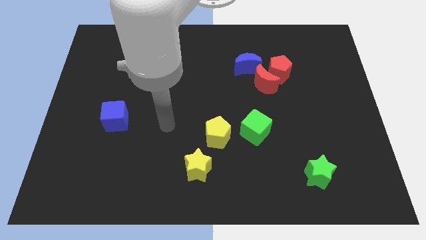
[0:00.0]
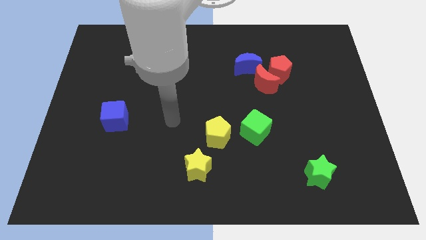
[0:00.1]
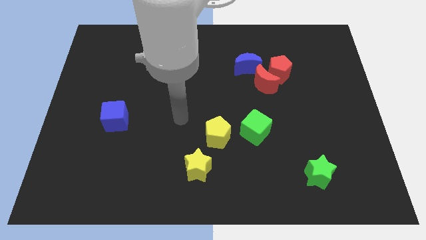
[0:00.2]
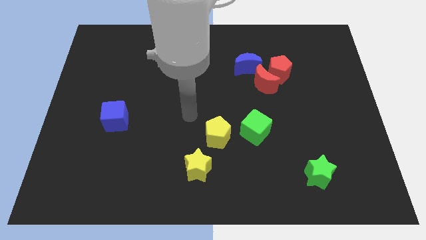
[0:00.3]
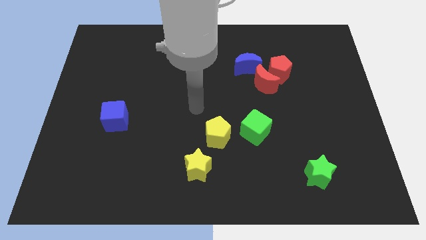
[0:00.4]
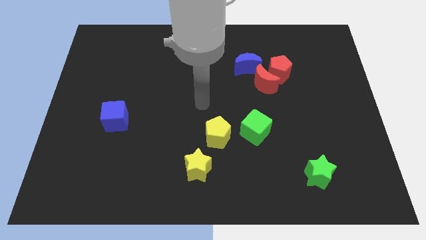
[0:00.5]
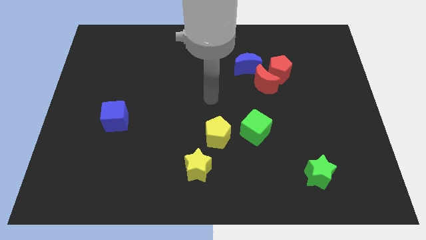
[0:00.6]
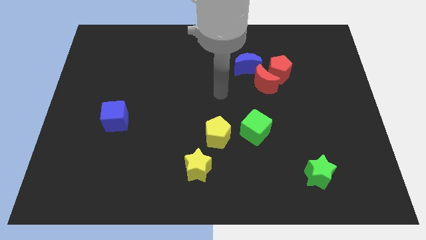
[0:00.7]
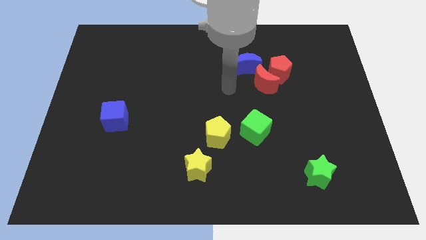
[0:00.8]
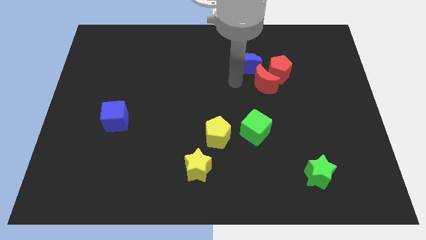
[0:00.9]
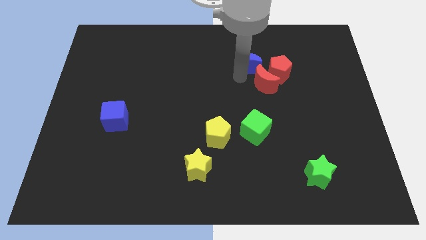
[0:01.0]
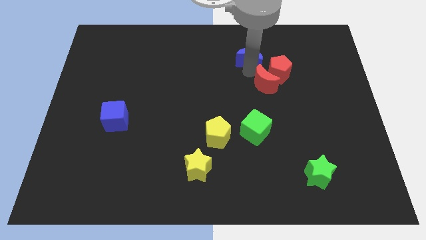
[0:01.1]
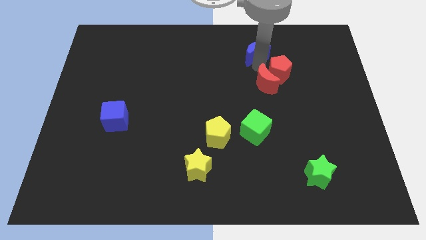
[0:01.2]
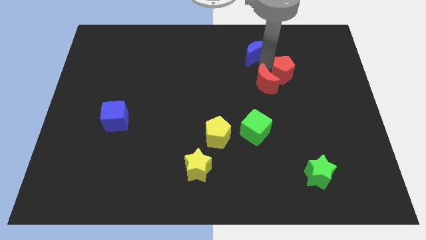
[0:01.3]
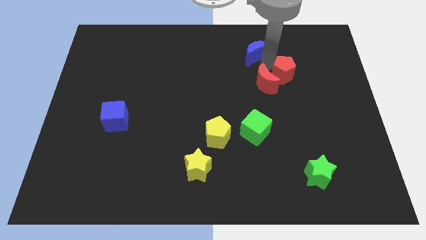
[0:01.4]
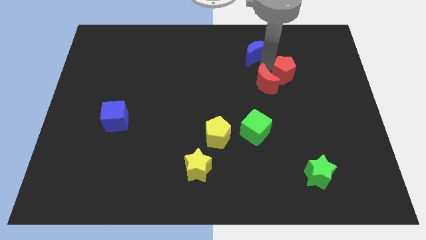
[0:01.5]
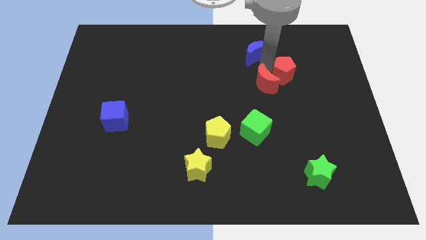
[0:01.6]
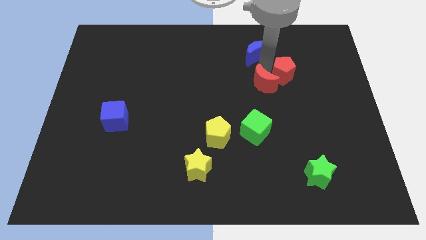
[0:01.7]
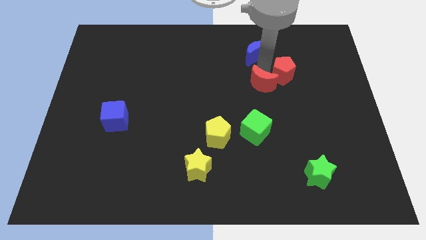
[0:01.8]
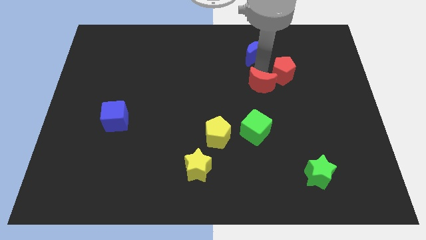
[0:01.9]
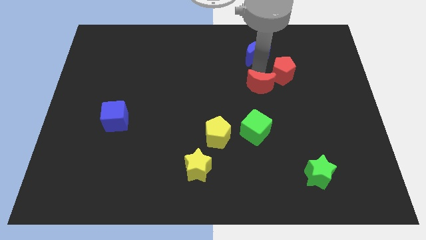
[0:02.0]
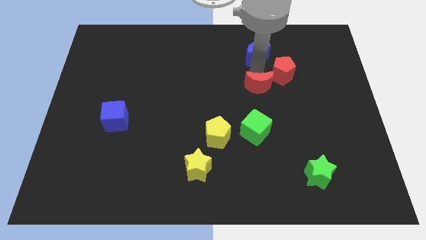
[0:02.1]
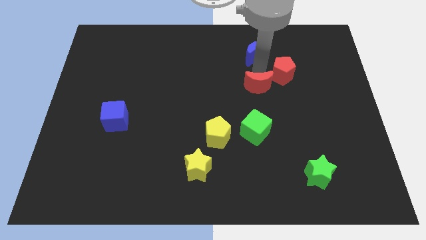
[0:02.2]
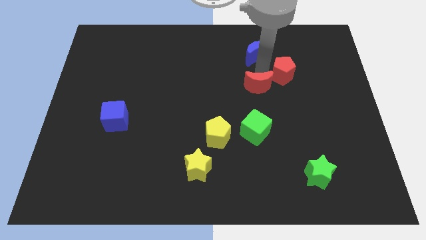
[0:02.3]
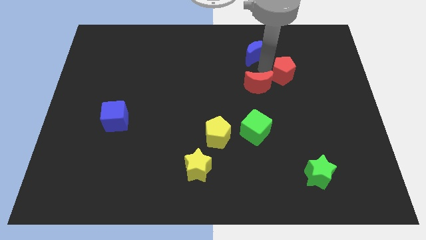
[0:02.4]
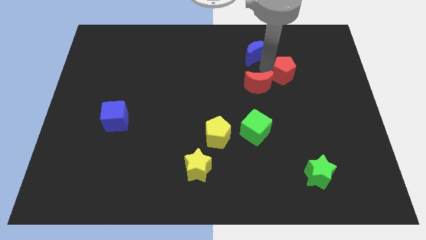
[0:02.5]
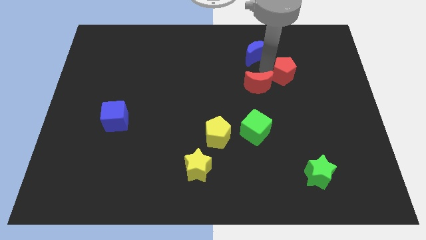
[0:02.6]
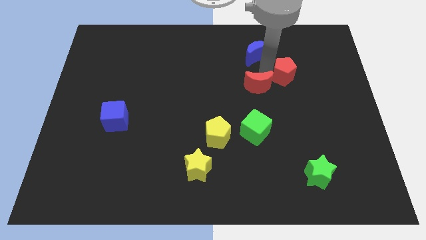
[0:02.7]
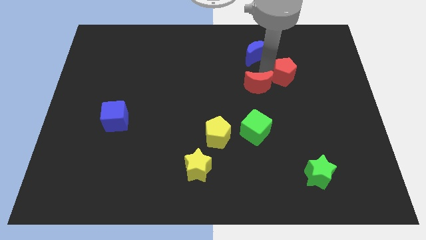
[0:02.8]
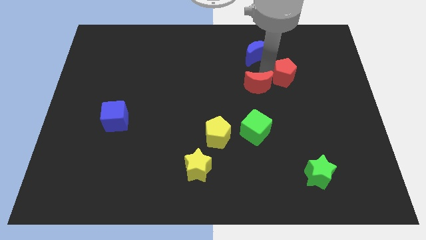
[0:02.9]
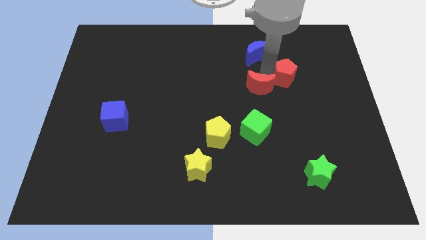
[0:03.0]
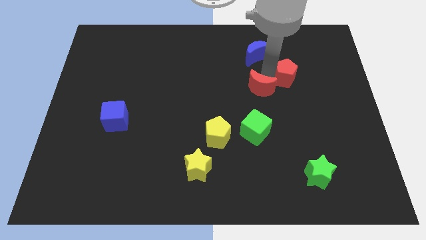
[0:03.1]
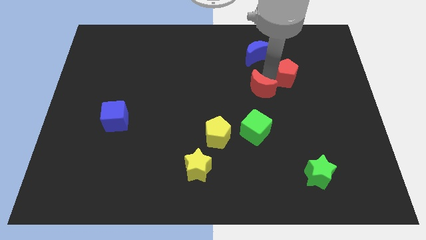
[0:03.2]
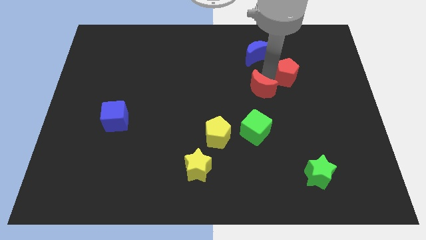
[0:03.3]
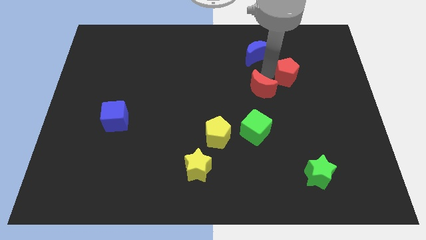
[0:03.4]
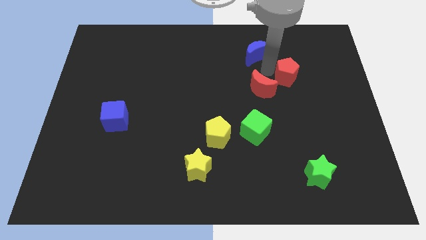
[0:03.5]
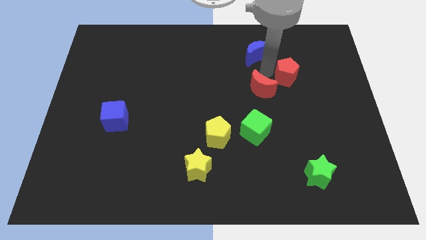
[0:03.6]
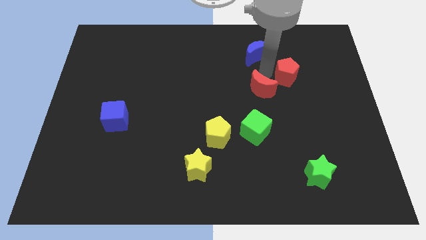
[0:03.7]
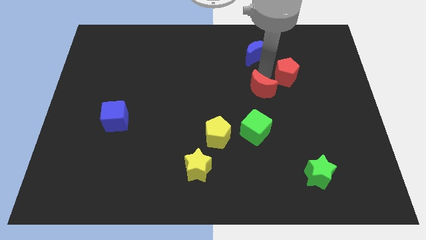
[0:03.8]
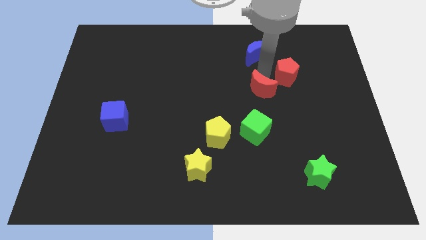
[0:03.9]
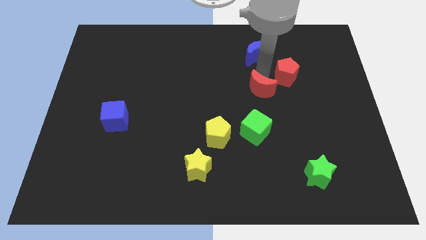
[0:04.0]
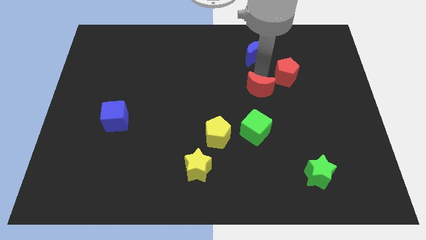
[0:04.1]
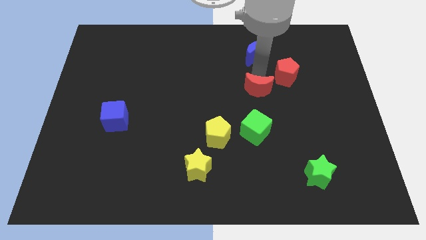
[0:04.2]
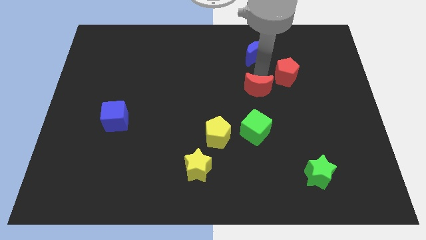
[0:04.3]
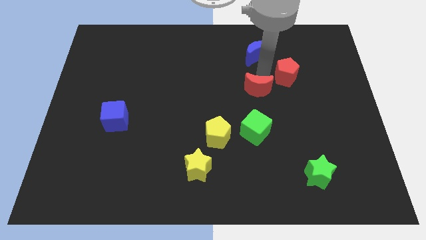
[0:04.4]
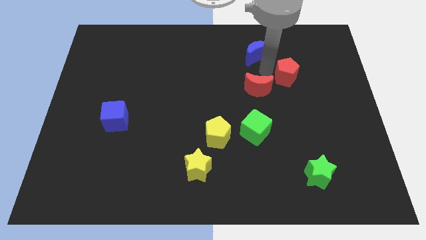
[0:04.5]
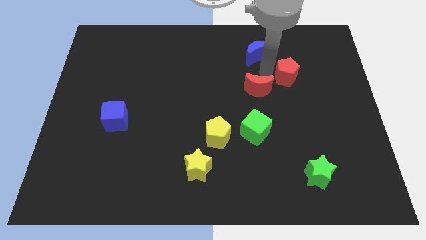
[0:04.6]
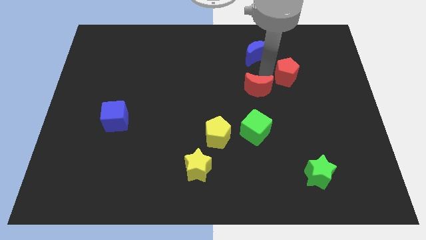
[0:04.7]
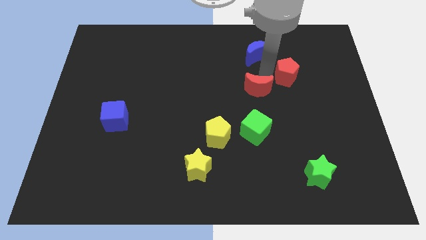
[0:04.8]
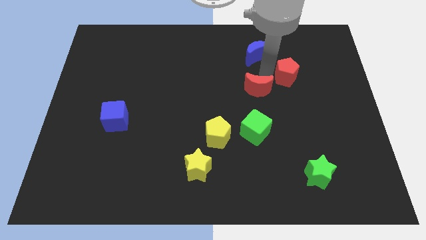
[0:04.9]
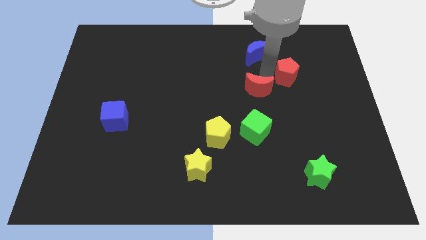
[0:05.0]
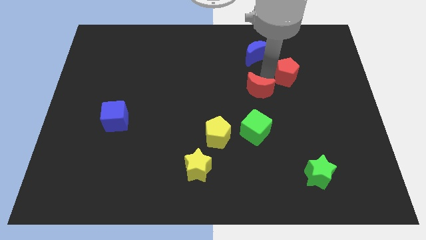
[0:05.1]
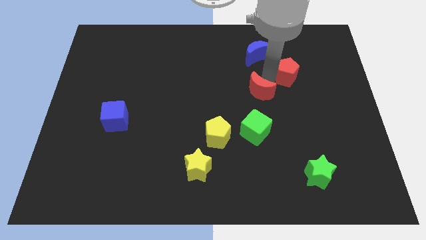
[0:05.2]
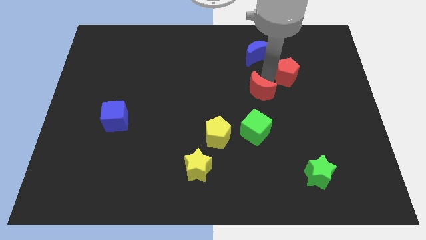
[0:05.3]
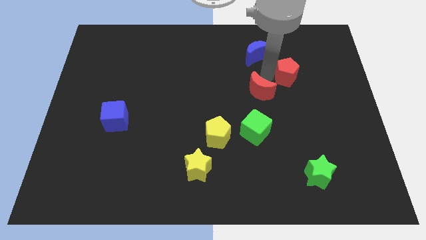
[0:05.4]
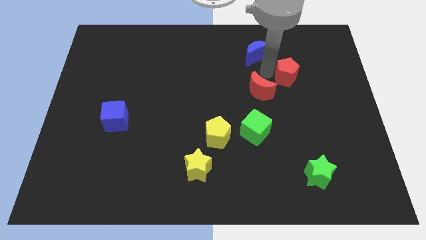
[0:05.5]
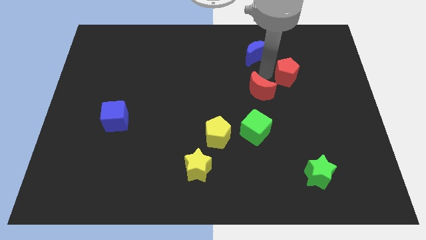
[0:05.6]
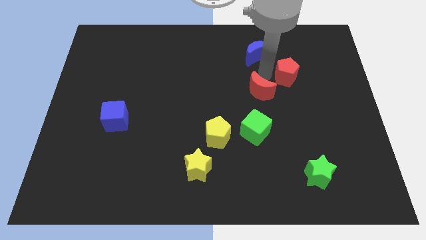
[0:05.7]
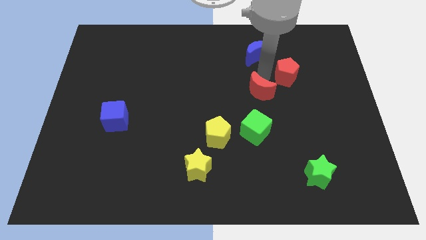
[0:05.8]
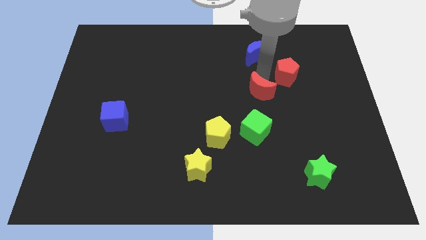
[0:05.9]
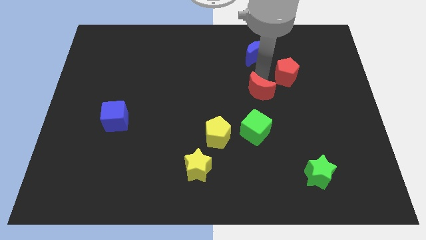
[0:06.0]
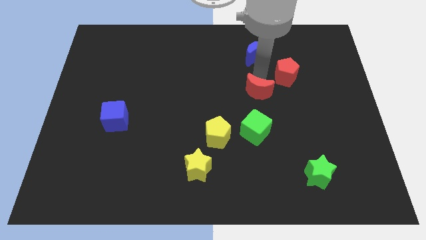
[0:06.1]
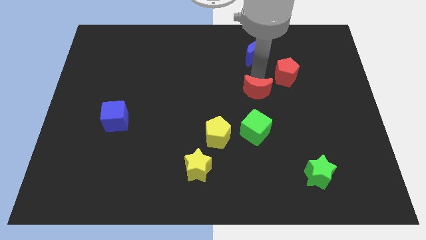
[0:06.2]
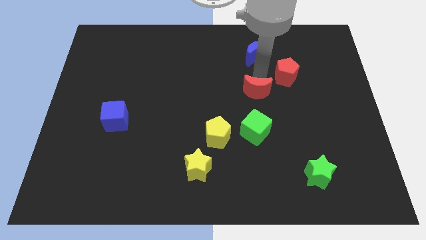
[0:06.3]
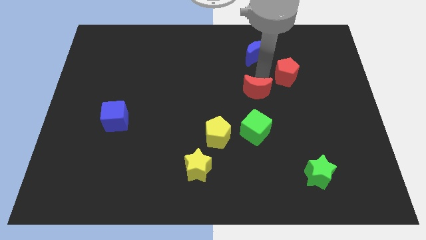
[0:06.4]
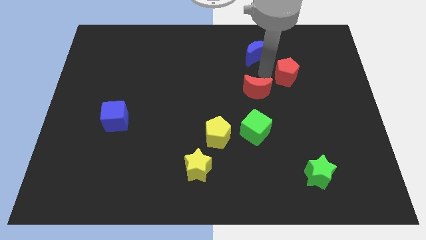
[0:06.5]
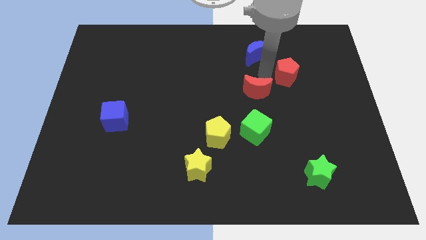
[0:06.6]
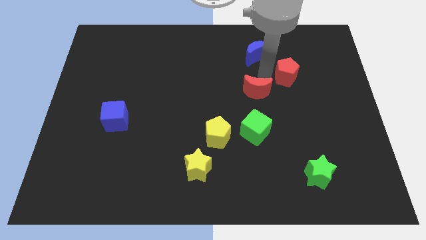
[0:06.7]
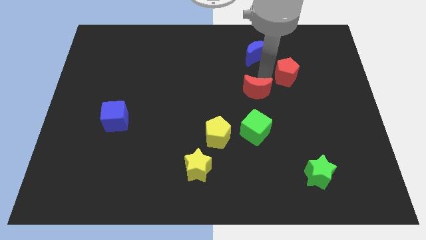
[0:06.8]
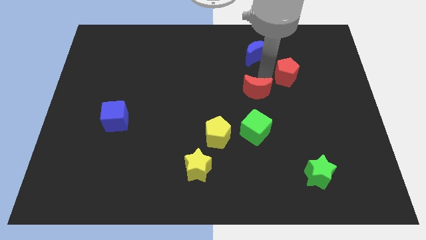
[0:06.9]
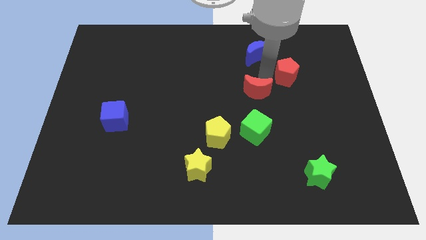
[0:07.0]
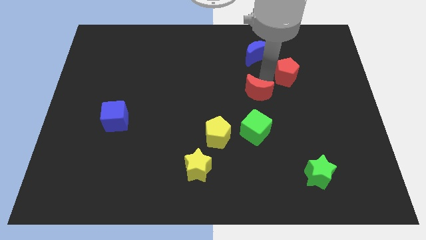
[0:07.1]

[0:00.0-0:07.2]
move the red moon away from the red pentagon and blue moon

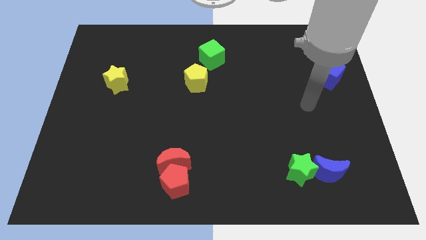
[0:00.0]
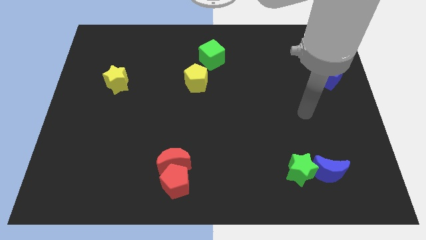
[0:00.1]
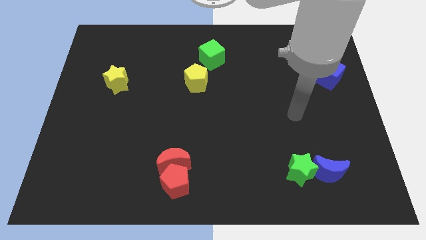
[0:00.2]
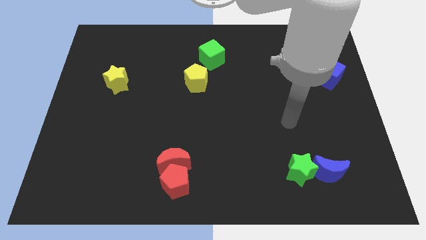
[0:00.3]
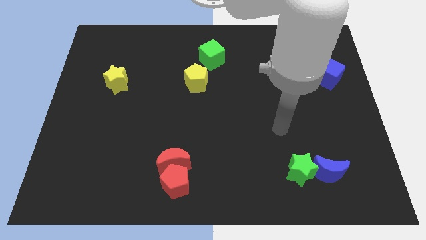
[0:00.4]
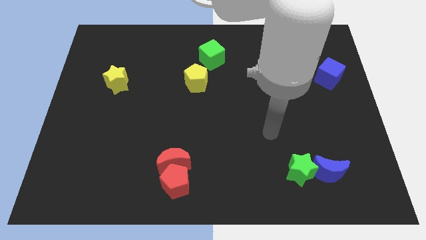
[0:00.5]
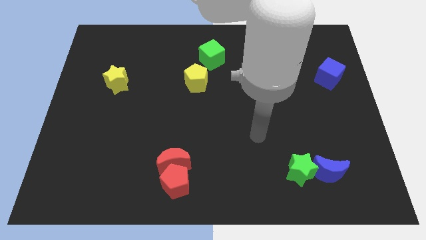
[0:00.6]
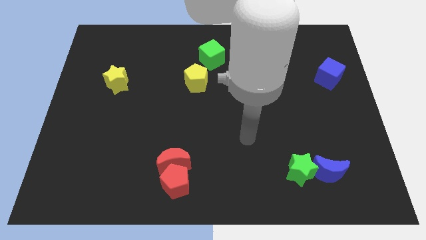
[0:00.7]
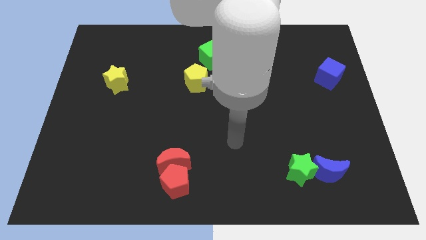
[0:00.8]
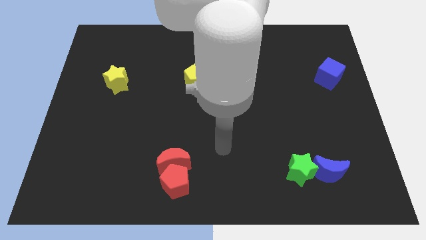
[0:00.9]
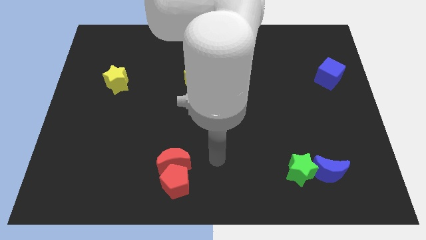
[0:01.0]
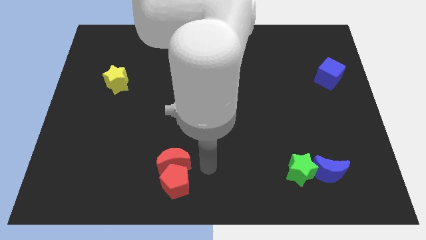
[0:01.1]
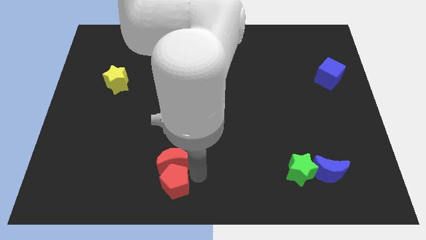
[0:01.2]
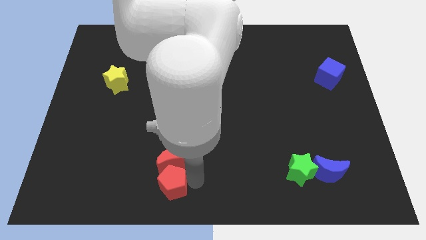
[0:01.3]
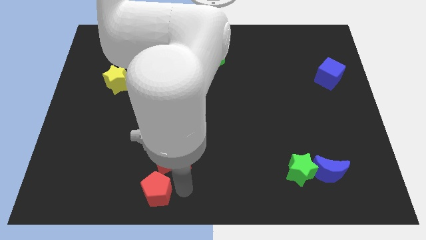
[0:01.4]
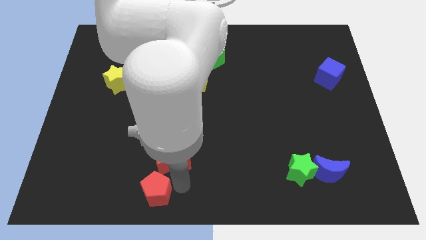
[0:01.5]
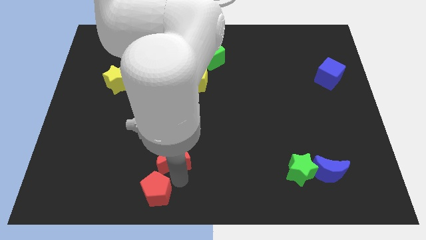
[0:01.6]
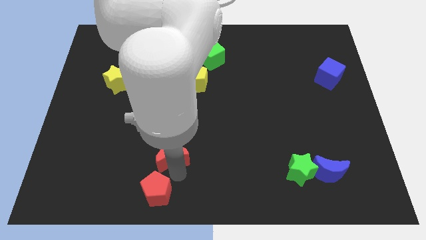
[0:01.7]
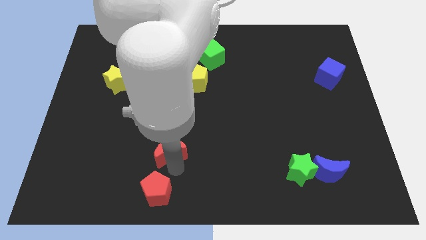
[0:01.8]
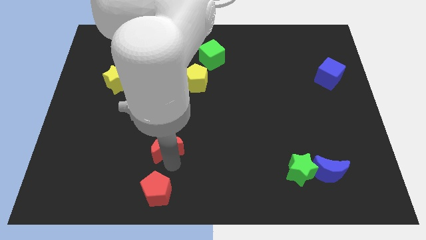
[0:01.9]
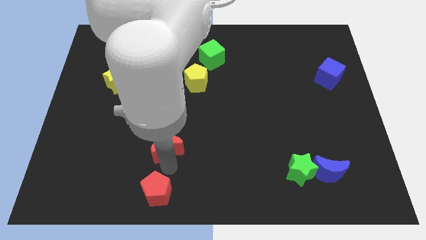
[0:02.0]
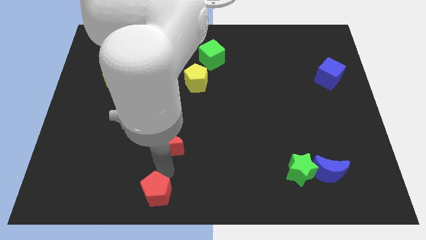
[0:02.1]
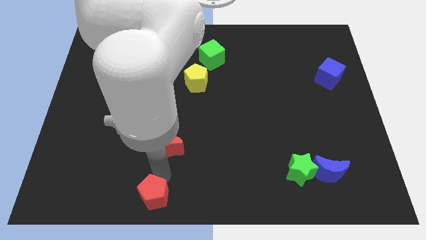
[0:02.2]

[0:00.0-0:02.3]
separate the red moon from the red pentagon
